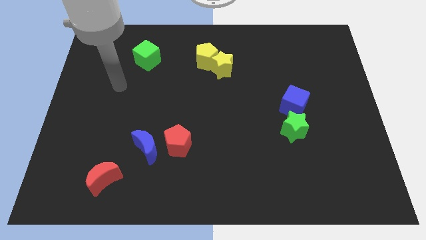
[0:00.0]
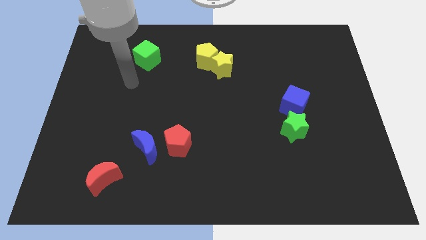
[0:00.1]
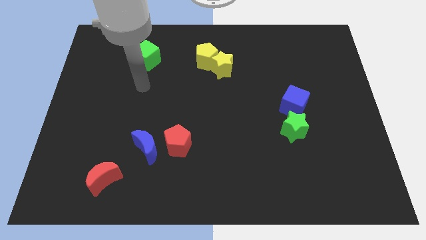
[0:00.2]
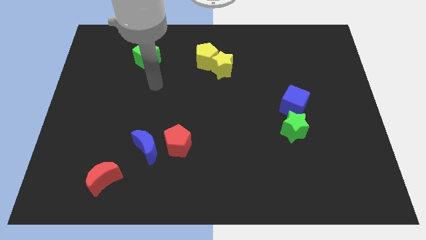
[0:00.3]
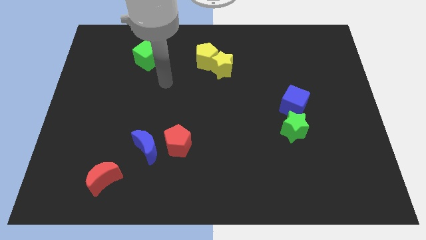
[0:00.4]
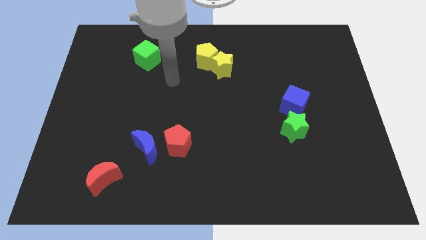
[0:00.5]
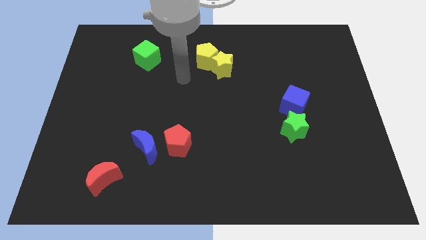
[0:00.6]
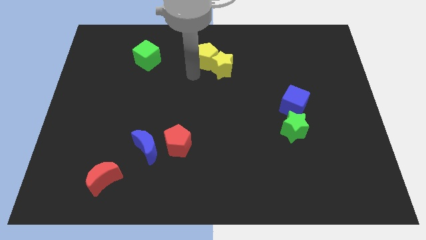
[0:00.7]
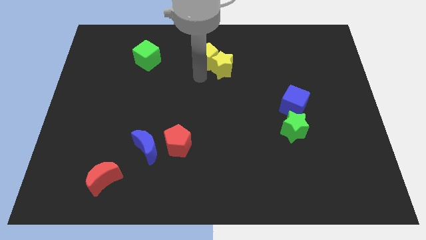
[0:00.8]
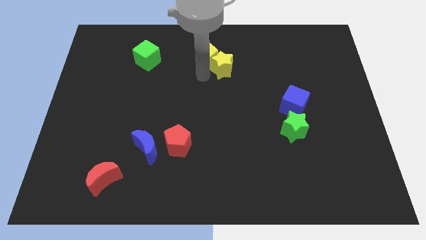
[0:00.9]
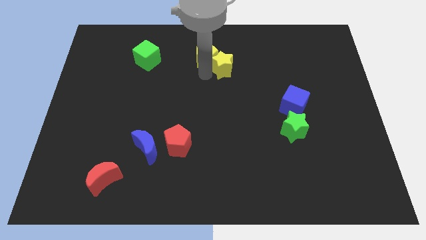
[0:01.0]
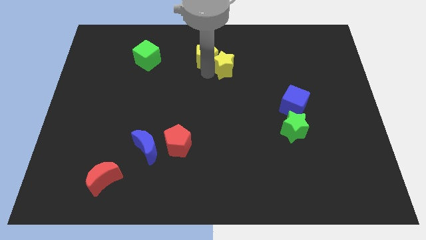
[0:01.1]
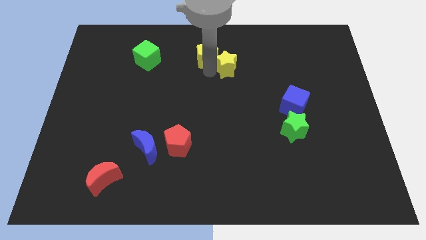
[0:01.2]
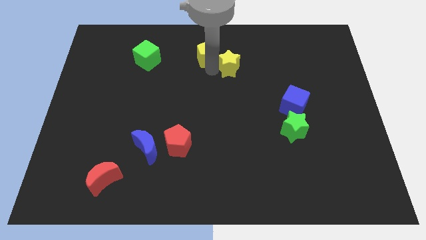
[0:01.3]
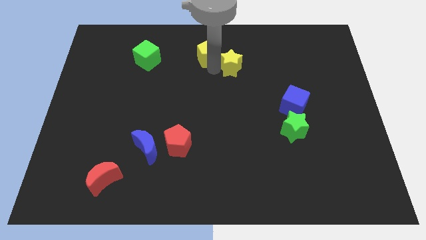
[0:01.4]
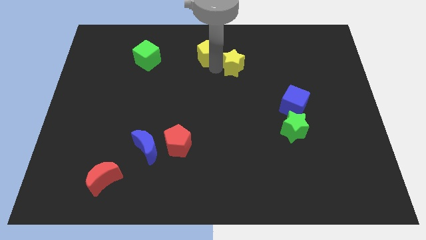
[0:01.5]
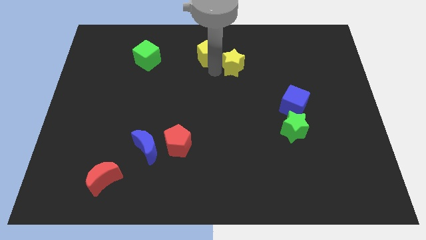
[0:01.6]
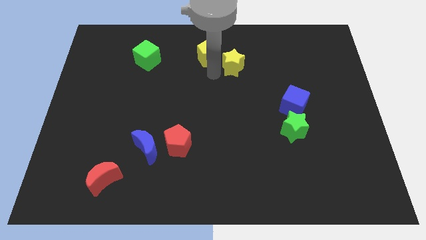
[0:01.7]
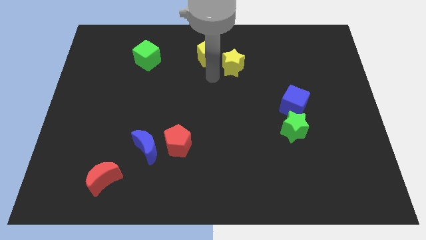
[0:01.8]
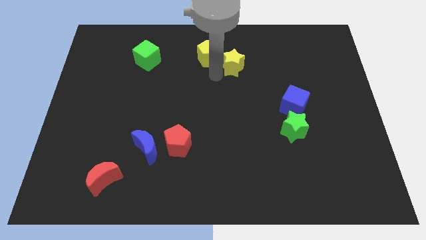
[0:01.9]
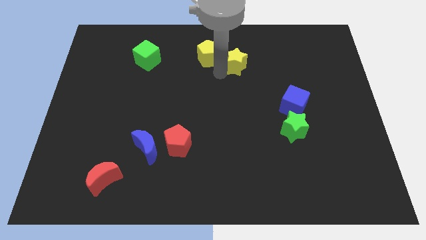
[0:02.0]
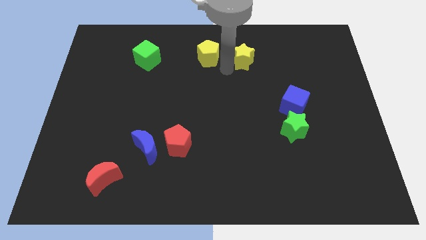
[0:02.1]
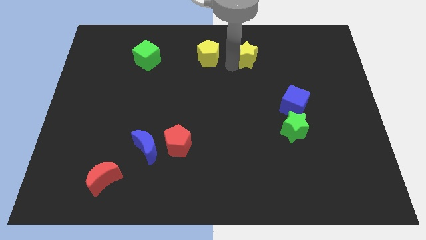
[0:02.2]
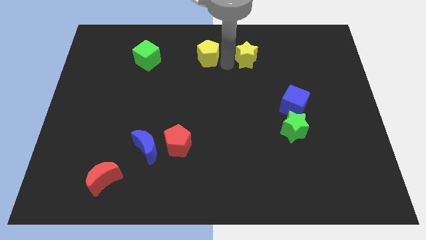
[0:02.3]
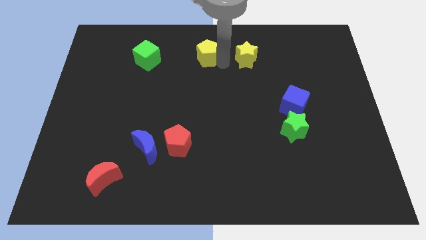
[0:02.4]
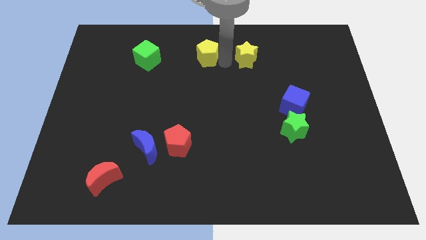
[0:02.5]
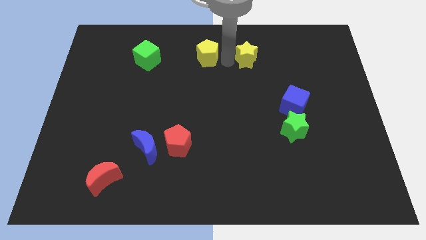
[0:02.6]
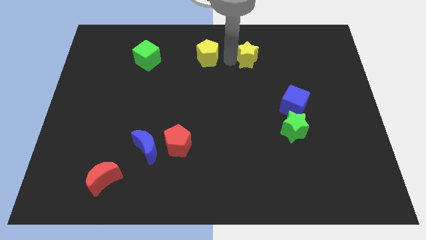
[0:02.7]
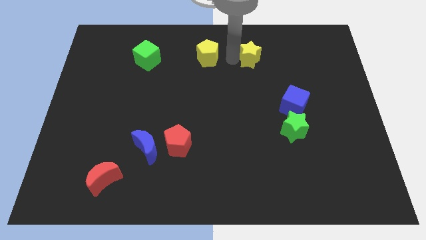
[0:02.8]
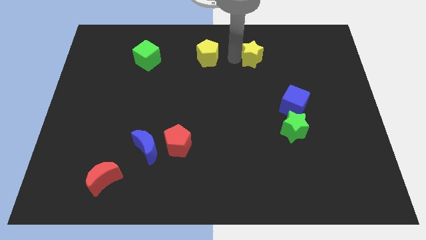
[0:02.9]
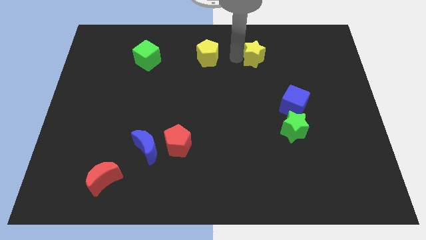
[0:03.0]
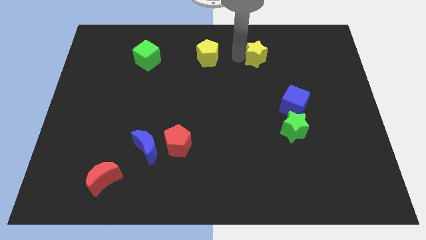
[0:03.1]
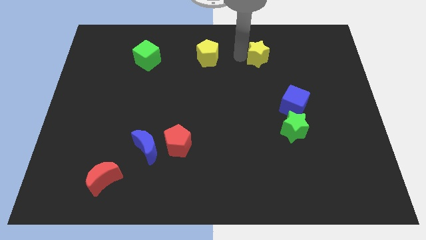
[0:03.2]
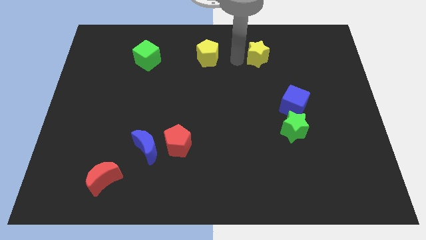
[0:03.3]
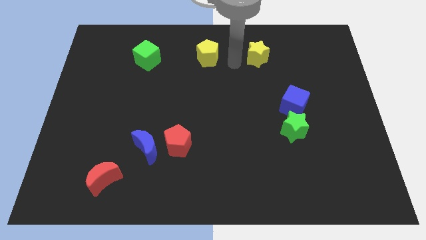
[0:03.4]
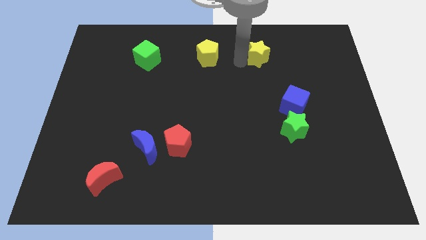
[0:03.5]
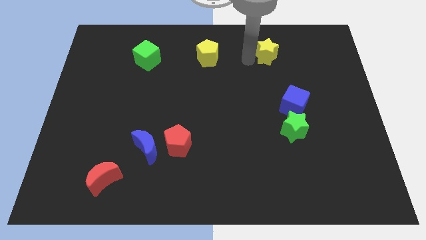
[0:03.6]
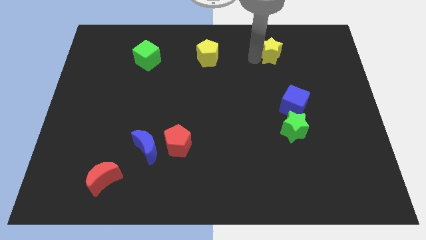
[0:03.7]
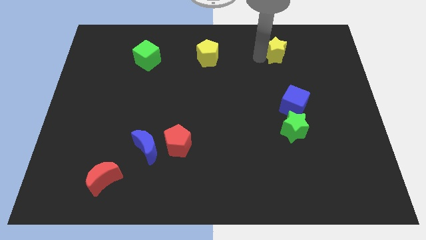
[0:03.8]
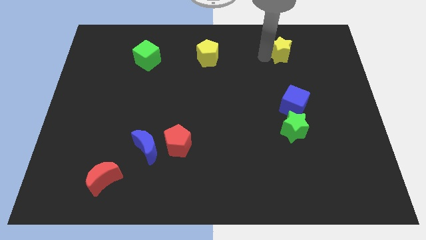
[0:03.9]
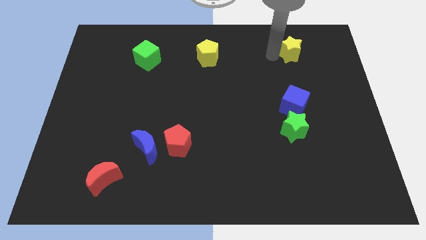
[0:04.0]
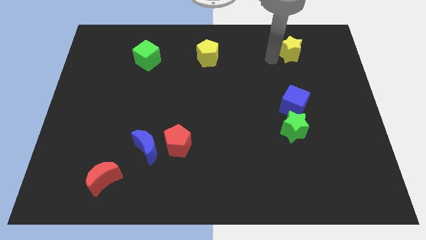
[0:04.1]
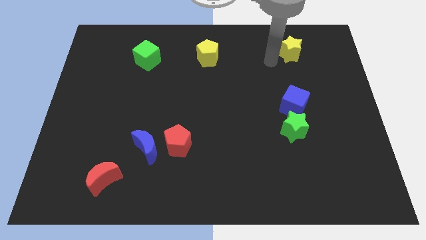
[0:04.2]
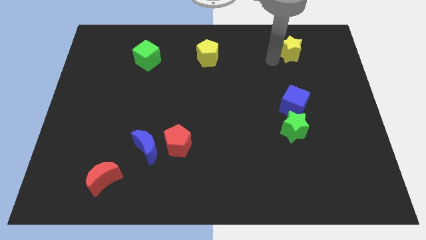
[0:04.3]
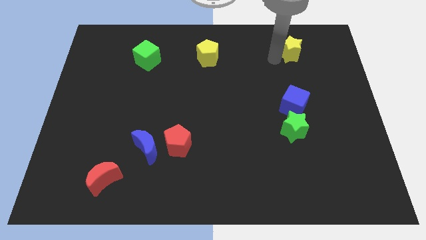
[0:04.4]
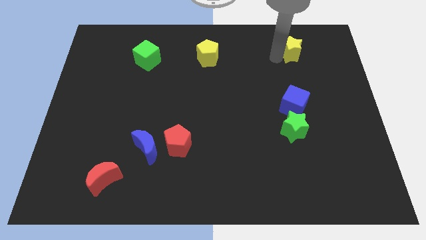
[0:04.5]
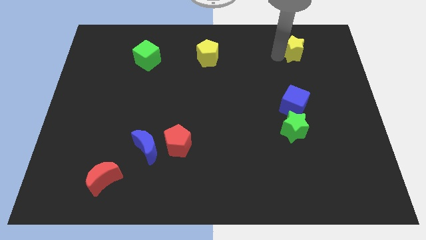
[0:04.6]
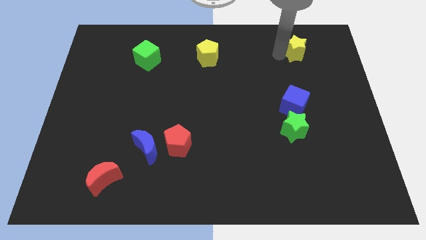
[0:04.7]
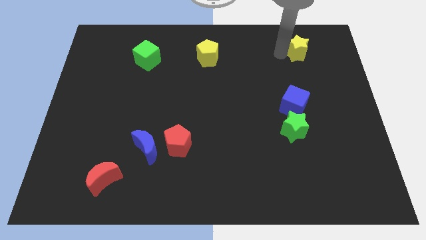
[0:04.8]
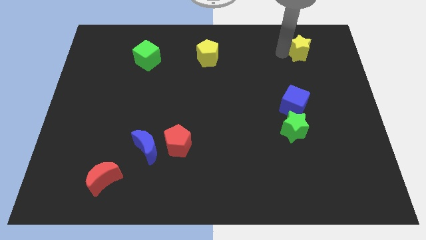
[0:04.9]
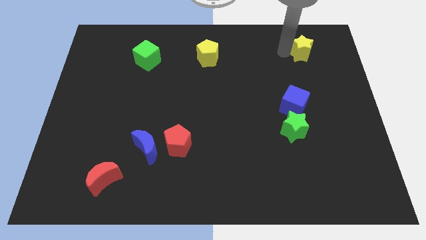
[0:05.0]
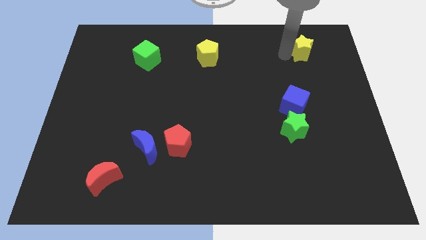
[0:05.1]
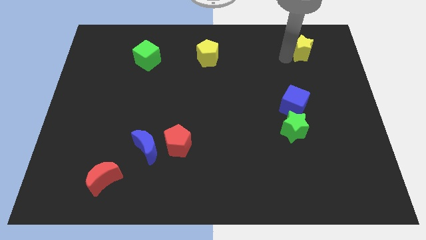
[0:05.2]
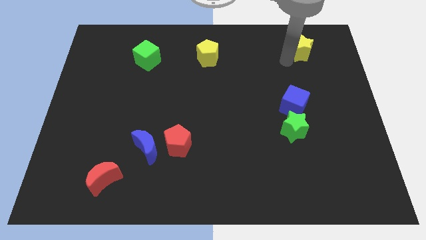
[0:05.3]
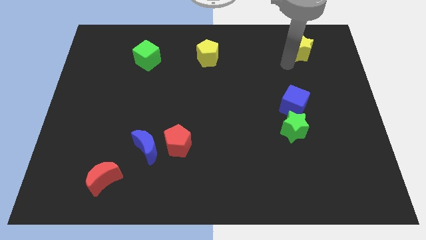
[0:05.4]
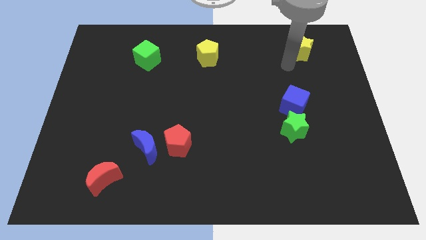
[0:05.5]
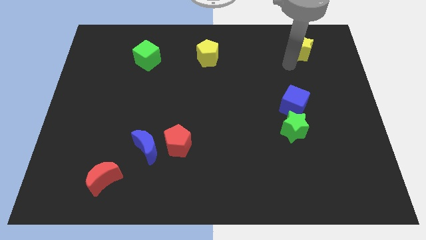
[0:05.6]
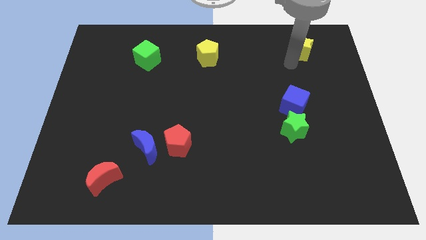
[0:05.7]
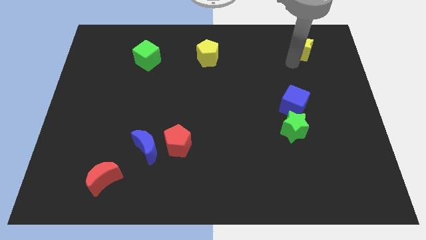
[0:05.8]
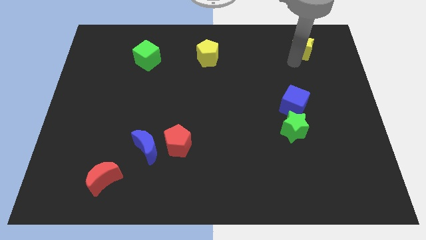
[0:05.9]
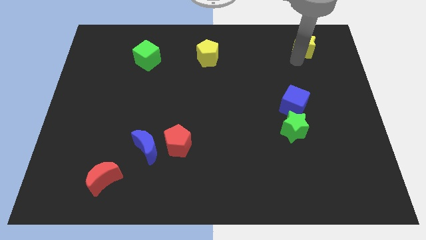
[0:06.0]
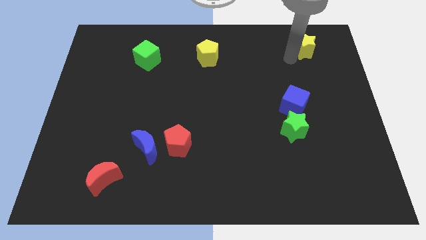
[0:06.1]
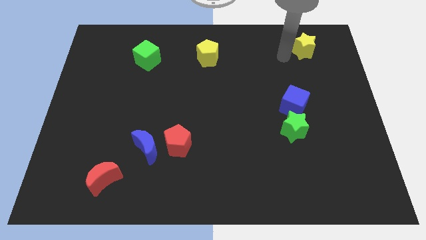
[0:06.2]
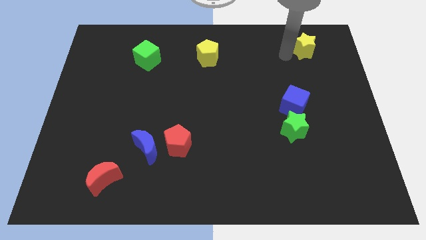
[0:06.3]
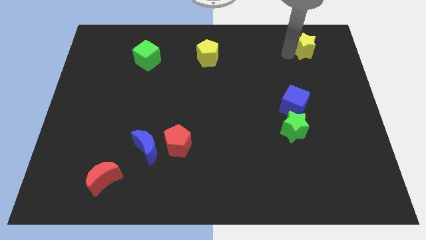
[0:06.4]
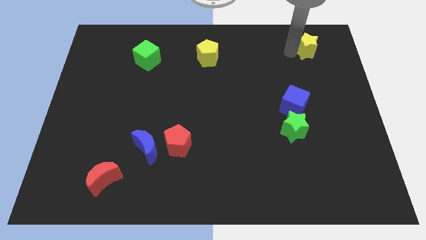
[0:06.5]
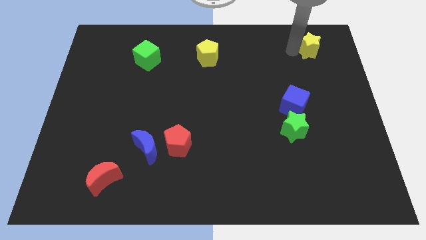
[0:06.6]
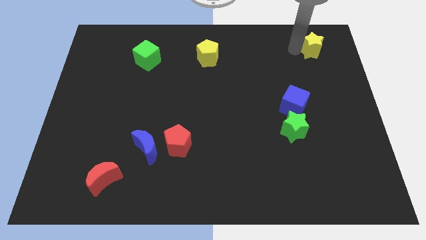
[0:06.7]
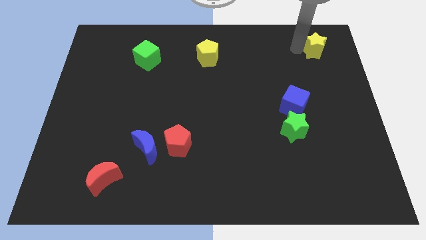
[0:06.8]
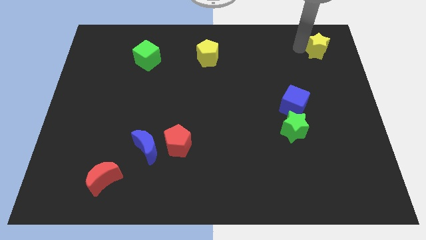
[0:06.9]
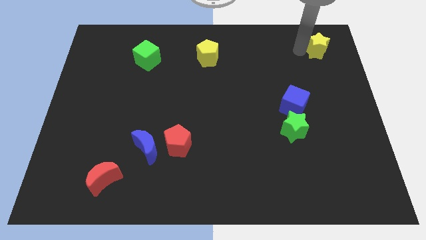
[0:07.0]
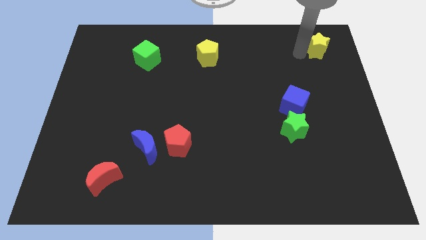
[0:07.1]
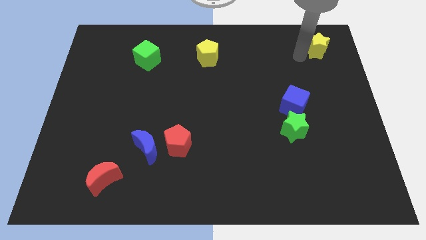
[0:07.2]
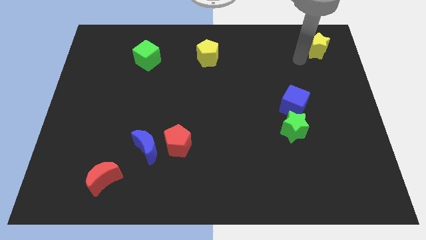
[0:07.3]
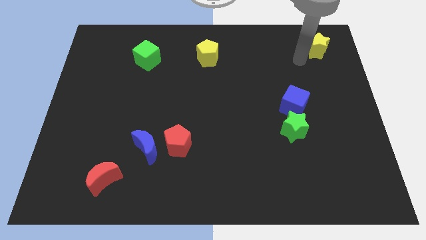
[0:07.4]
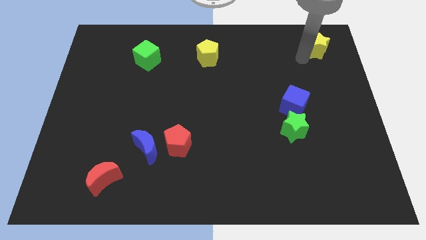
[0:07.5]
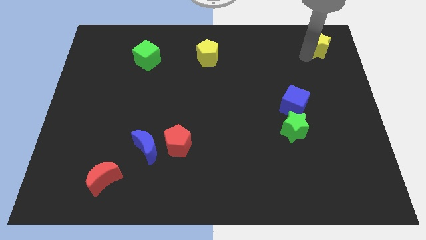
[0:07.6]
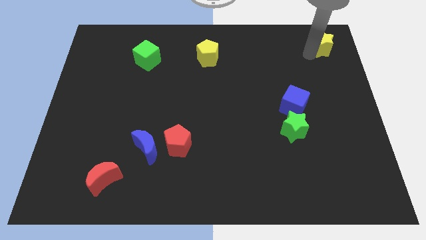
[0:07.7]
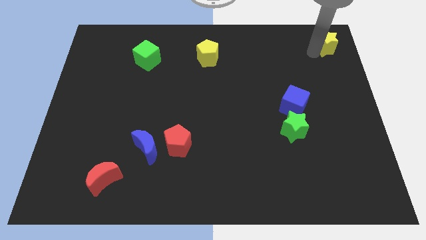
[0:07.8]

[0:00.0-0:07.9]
push the yellow star to the upper right corner
